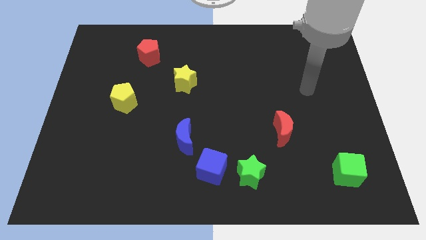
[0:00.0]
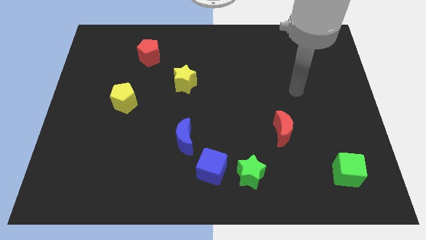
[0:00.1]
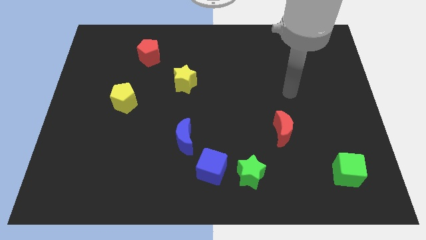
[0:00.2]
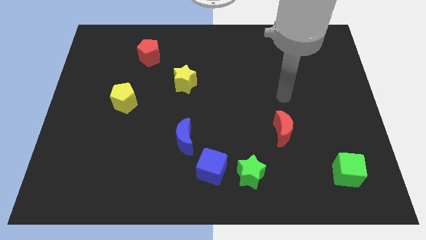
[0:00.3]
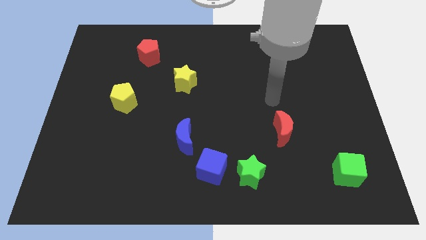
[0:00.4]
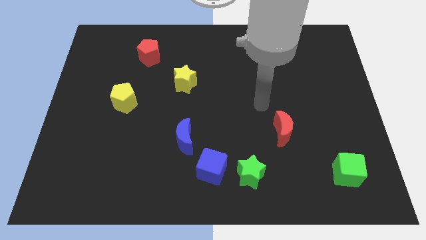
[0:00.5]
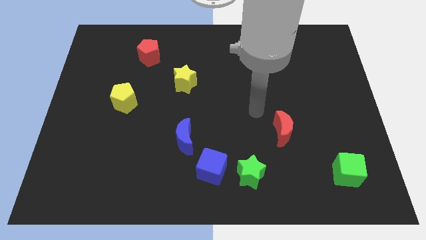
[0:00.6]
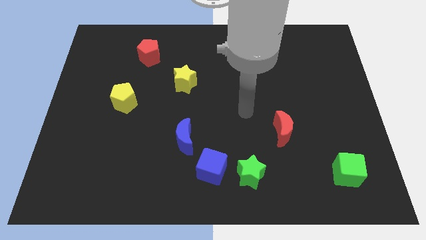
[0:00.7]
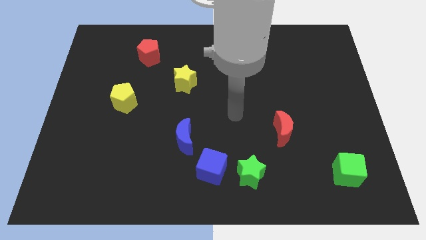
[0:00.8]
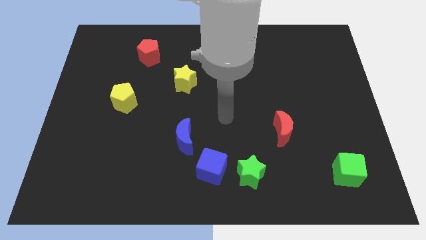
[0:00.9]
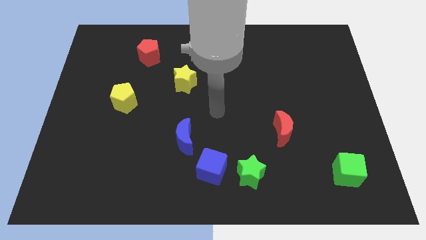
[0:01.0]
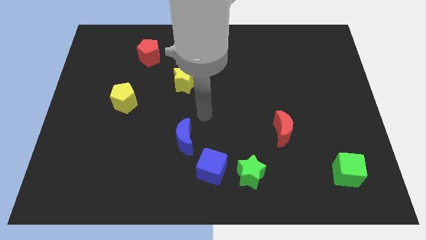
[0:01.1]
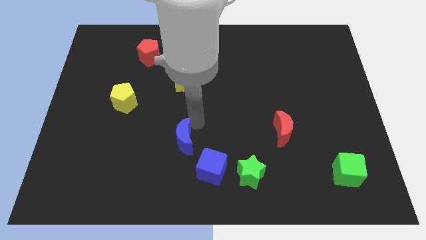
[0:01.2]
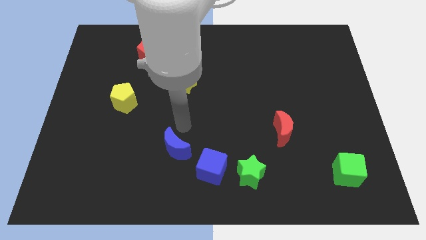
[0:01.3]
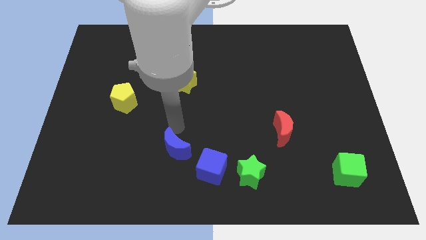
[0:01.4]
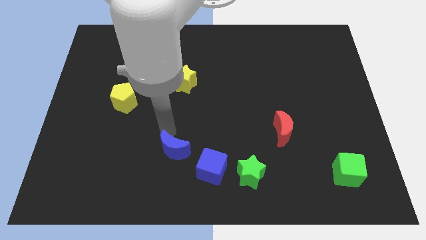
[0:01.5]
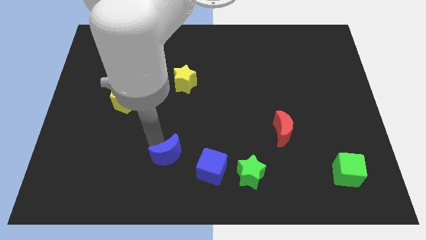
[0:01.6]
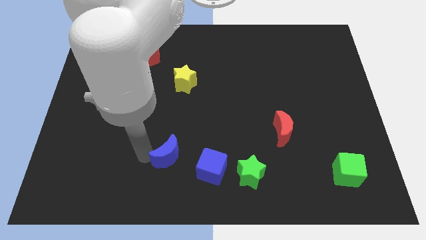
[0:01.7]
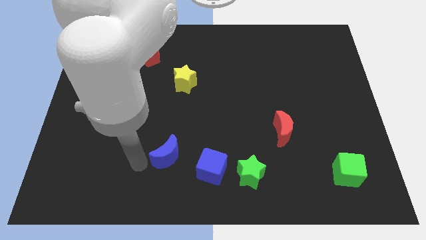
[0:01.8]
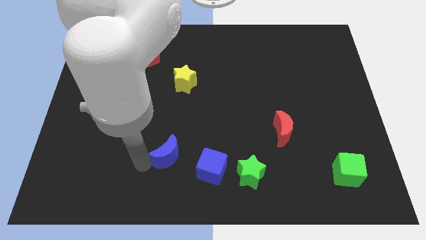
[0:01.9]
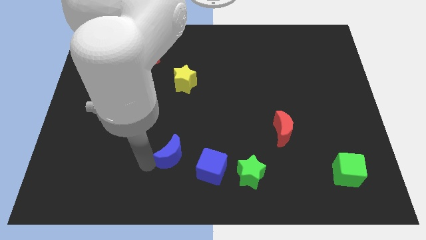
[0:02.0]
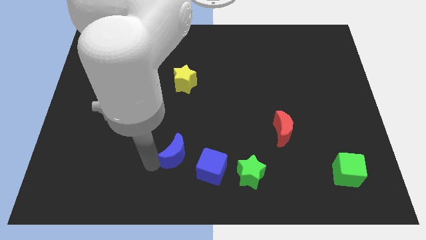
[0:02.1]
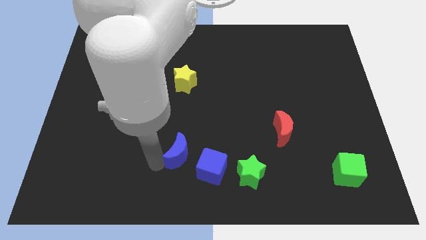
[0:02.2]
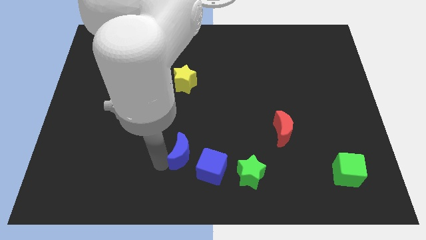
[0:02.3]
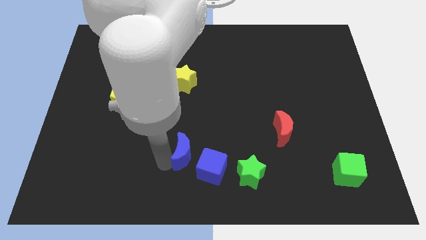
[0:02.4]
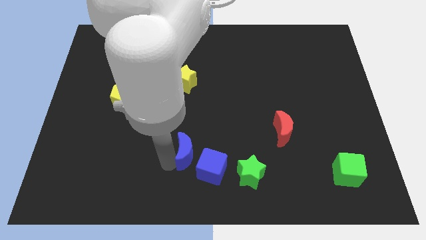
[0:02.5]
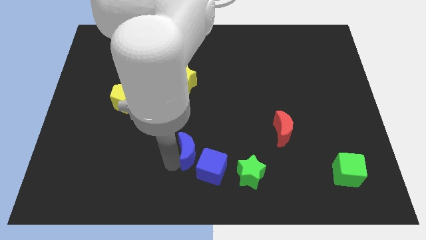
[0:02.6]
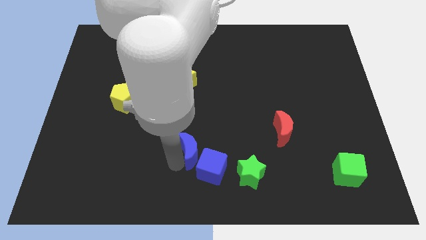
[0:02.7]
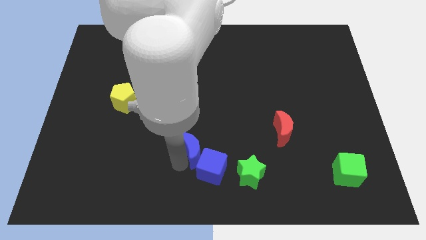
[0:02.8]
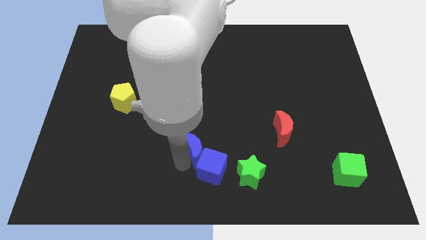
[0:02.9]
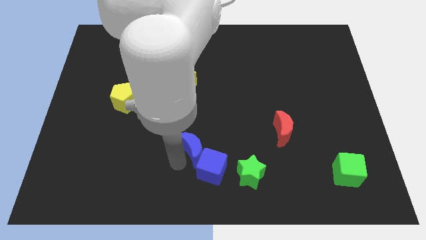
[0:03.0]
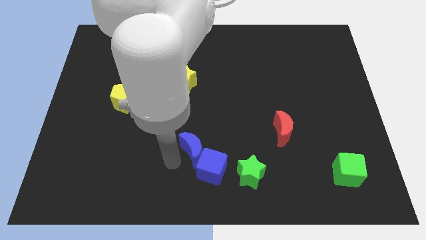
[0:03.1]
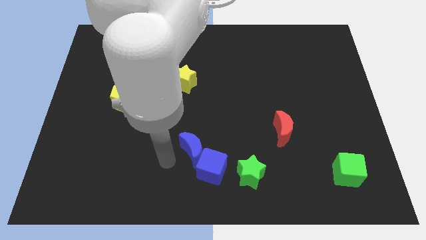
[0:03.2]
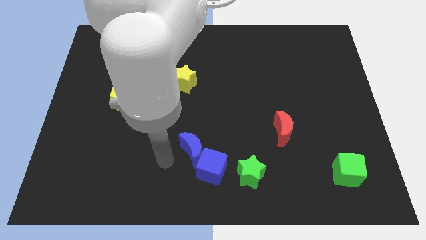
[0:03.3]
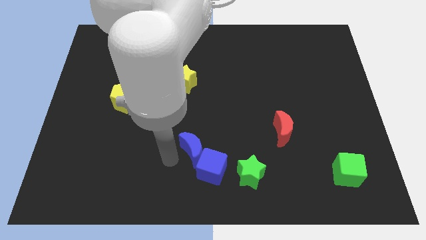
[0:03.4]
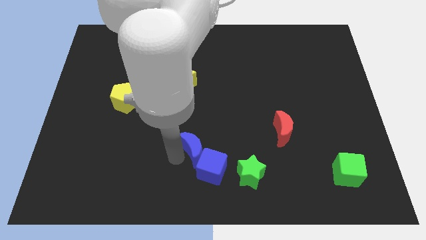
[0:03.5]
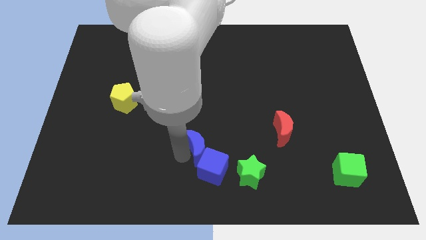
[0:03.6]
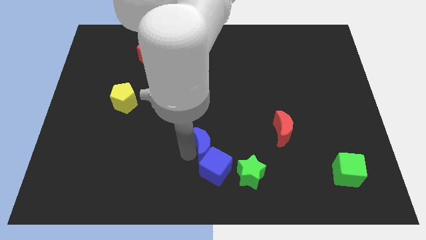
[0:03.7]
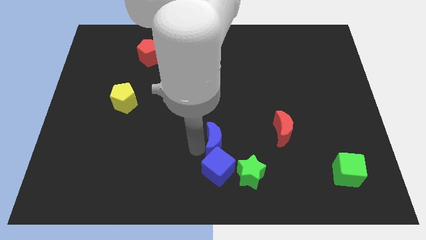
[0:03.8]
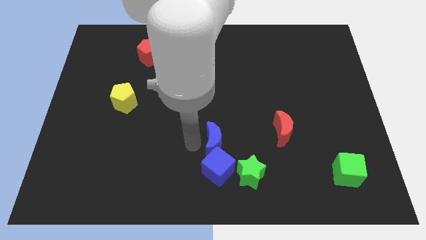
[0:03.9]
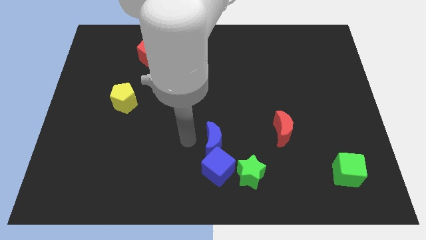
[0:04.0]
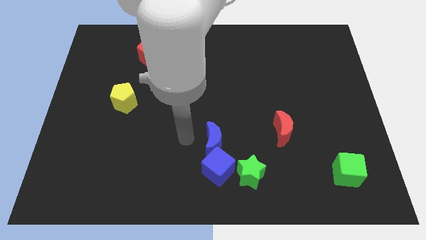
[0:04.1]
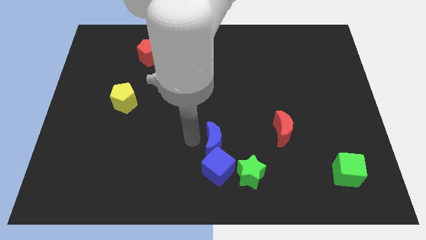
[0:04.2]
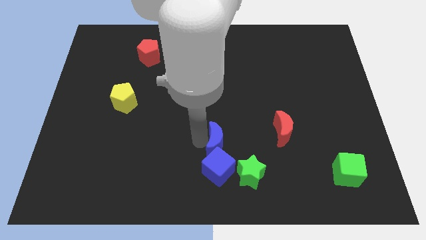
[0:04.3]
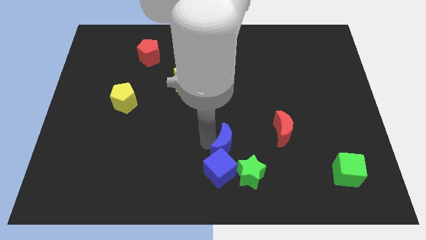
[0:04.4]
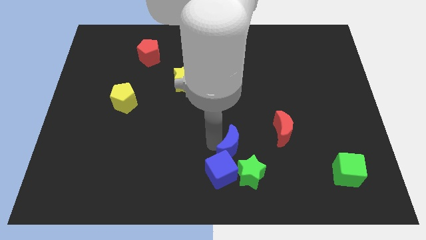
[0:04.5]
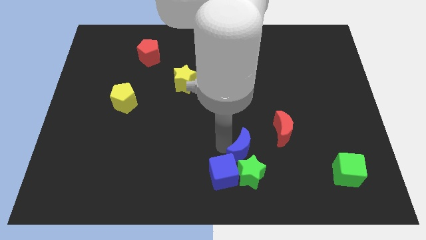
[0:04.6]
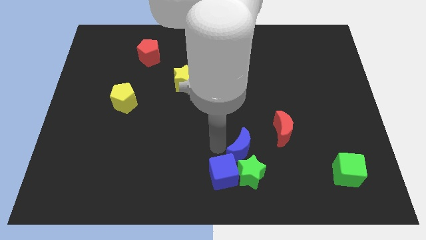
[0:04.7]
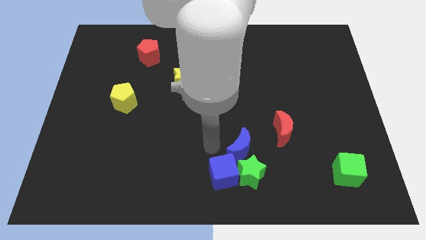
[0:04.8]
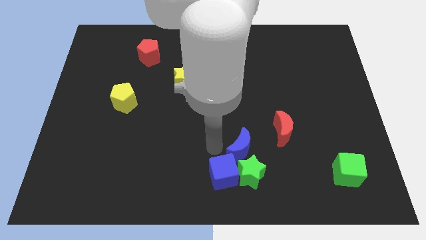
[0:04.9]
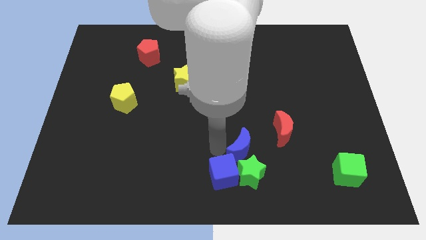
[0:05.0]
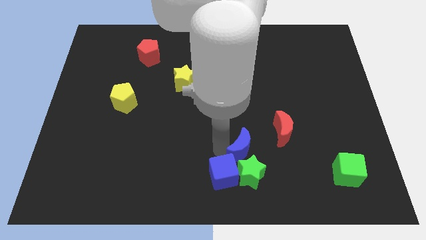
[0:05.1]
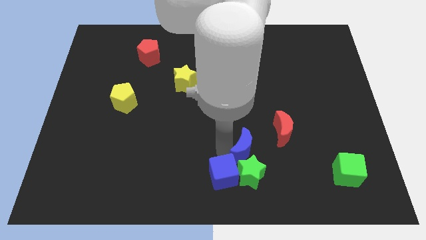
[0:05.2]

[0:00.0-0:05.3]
put the blue moon to the top right of the green star

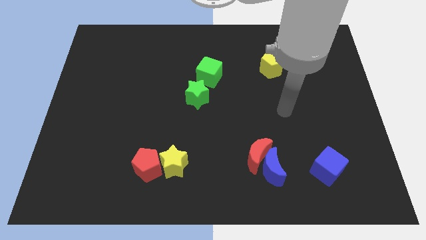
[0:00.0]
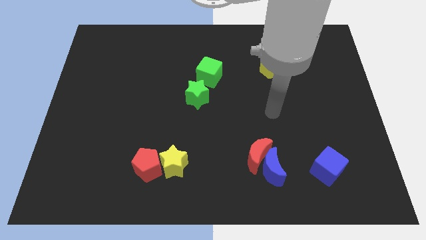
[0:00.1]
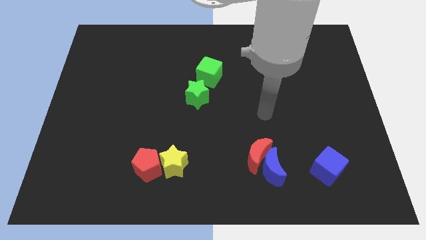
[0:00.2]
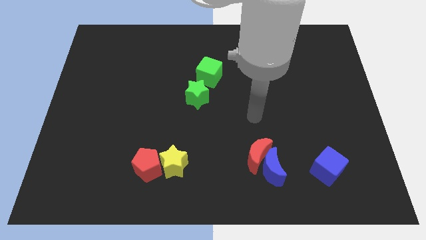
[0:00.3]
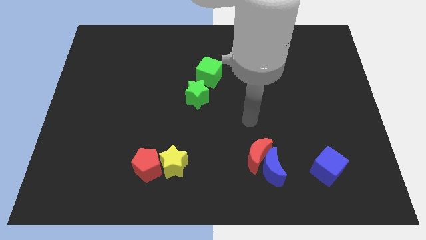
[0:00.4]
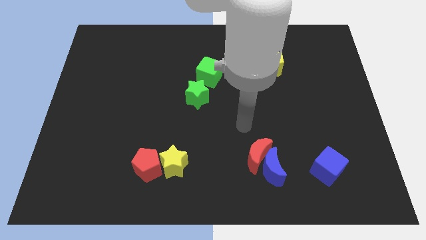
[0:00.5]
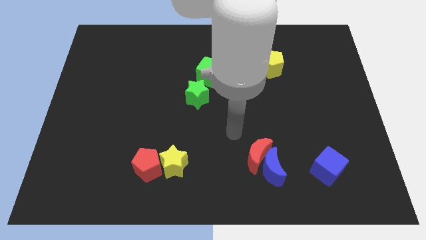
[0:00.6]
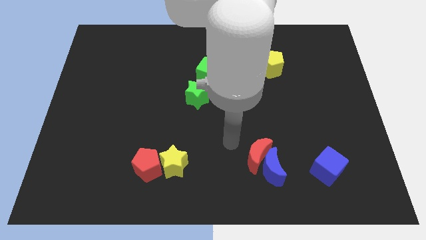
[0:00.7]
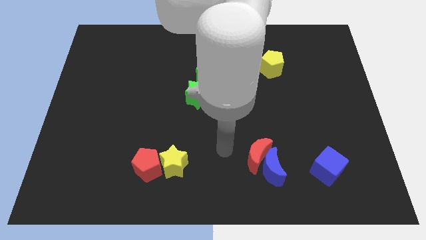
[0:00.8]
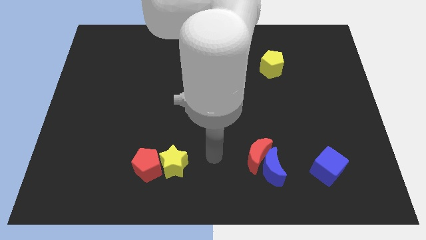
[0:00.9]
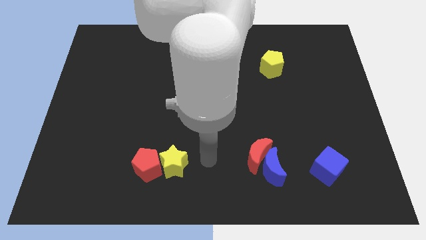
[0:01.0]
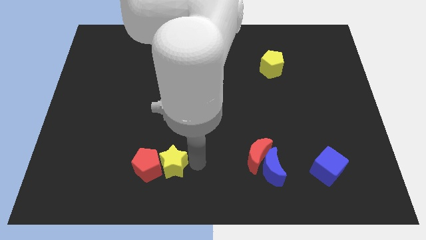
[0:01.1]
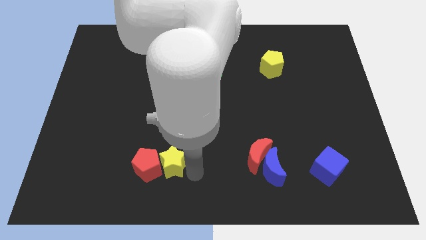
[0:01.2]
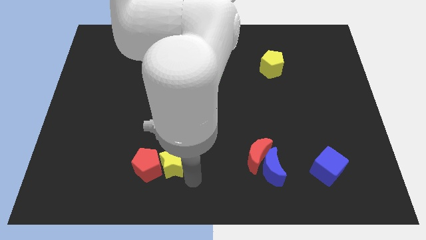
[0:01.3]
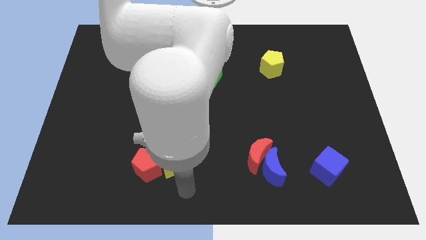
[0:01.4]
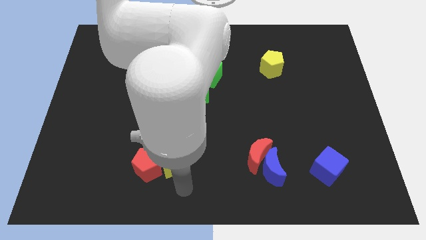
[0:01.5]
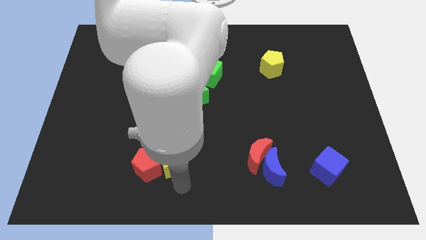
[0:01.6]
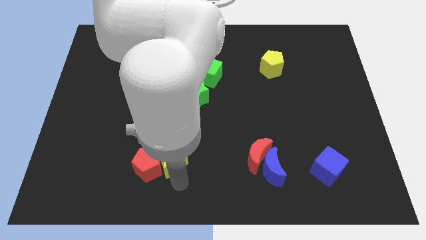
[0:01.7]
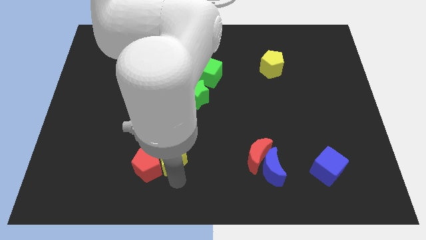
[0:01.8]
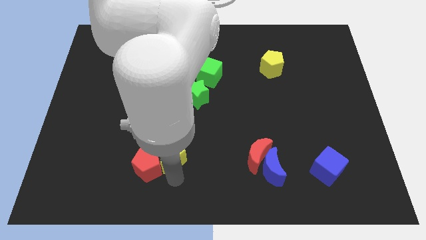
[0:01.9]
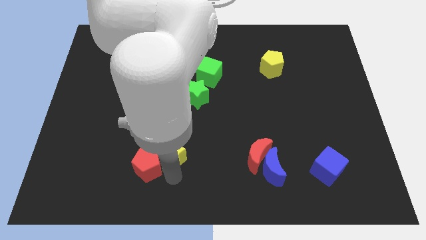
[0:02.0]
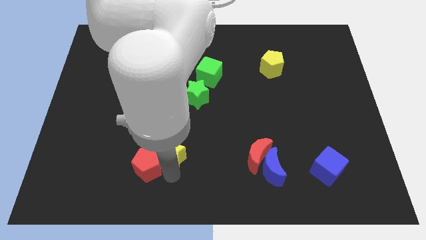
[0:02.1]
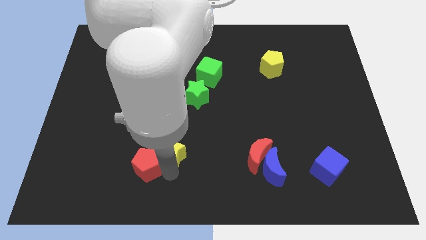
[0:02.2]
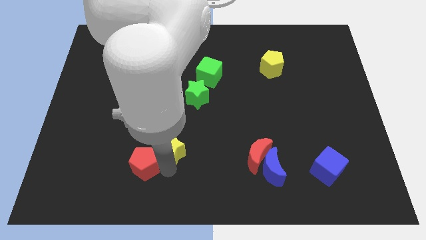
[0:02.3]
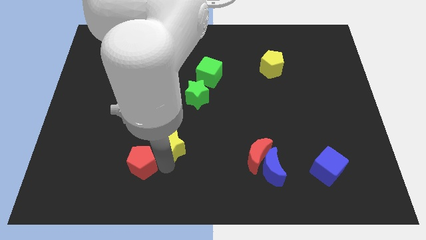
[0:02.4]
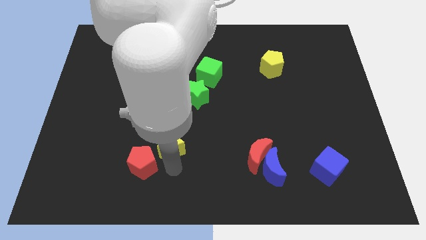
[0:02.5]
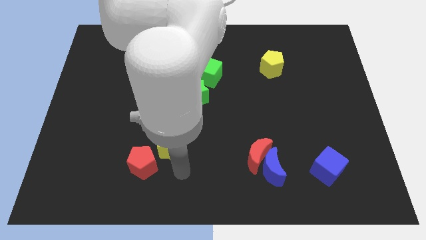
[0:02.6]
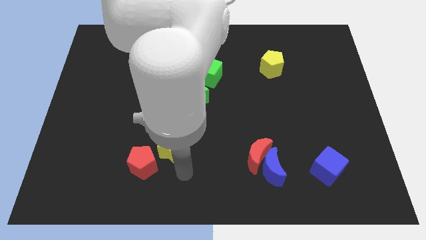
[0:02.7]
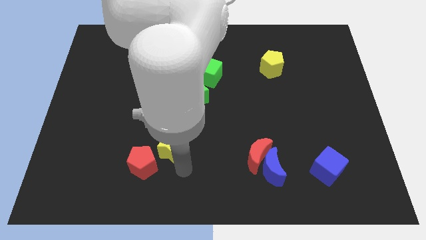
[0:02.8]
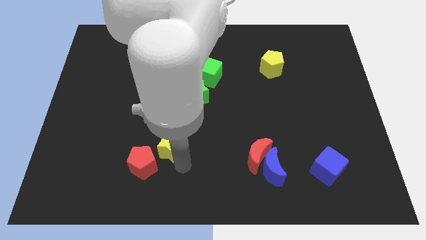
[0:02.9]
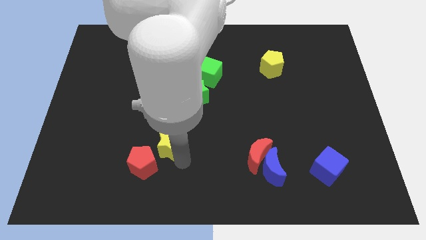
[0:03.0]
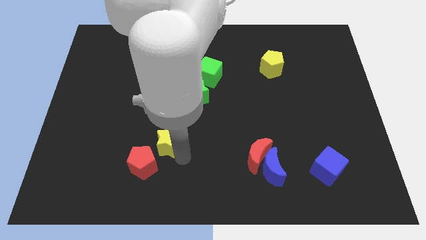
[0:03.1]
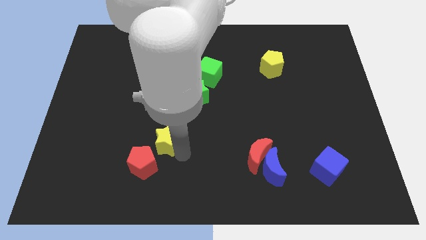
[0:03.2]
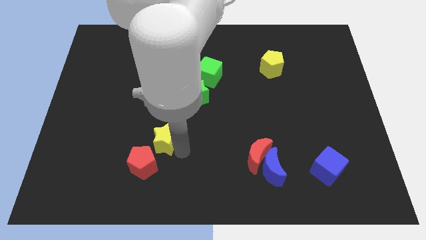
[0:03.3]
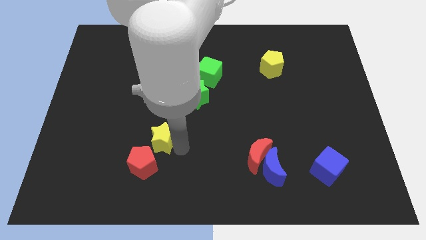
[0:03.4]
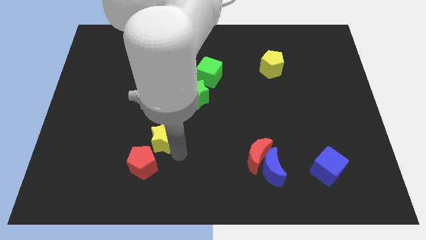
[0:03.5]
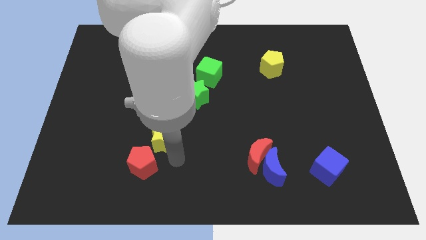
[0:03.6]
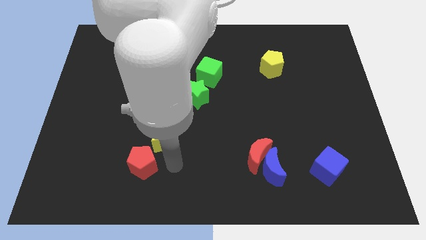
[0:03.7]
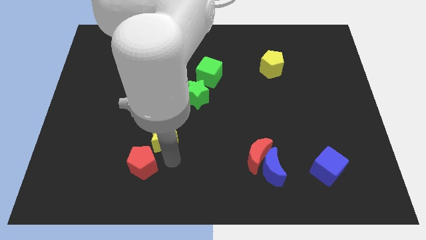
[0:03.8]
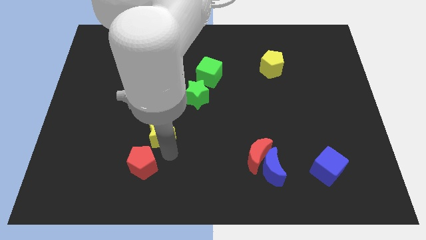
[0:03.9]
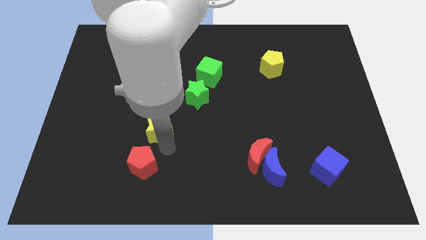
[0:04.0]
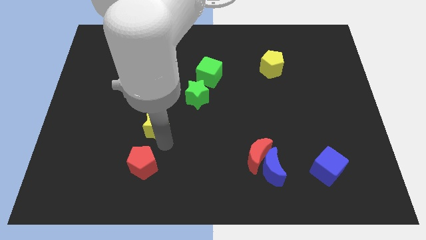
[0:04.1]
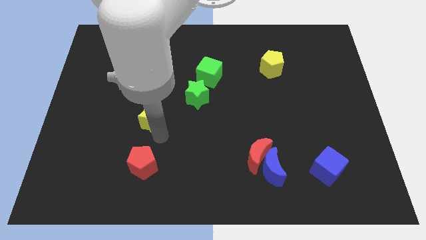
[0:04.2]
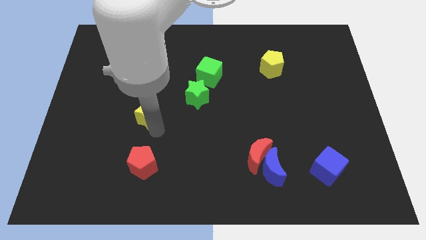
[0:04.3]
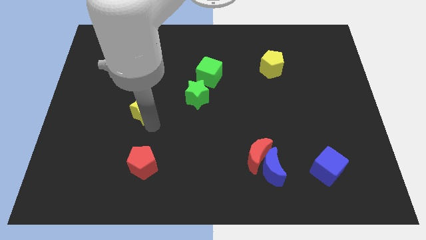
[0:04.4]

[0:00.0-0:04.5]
move the yellow star left of the green star
